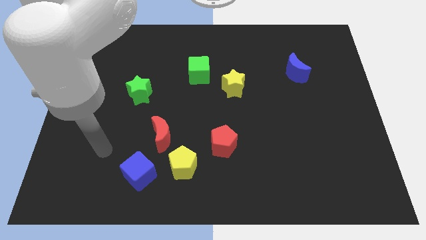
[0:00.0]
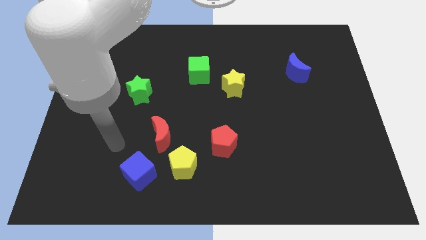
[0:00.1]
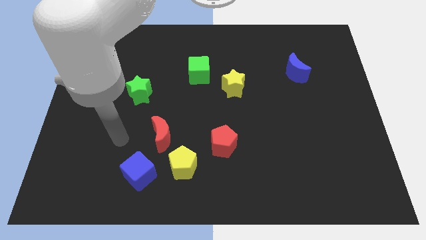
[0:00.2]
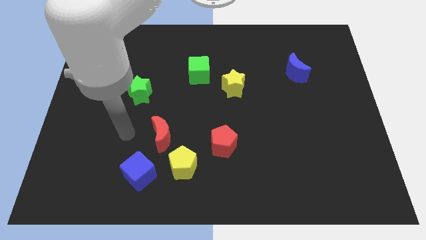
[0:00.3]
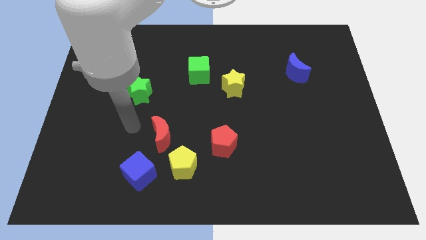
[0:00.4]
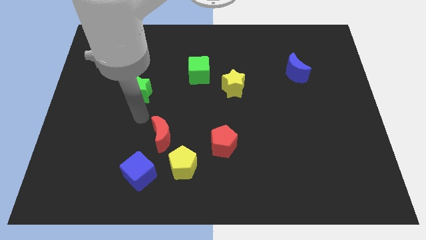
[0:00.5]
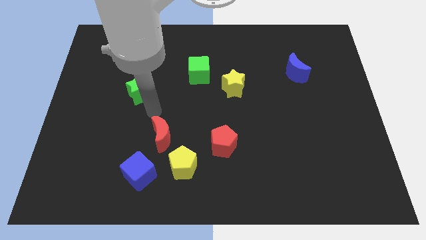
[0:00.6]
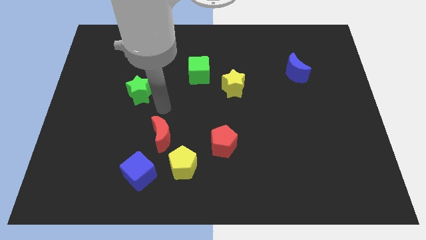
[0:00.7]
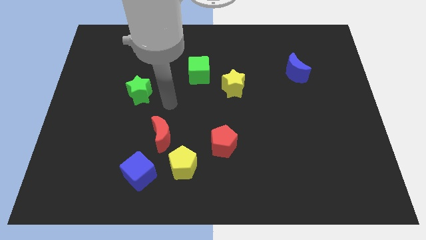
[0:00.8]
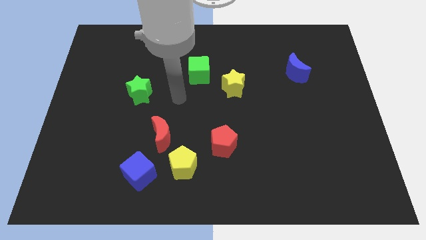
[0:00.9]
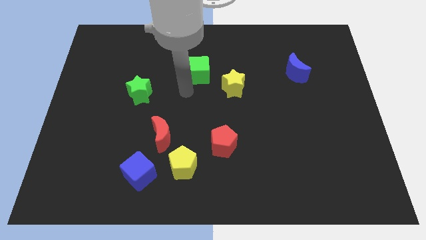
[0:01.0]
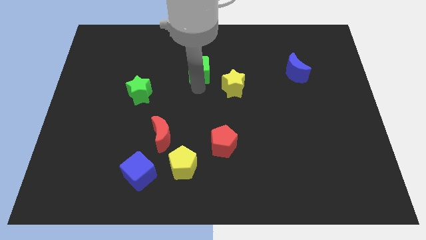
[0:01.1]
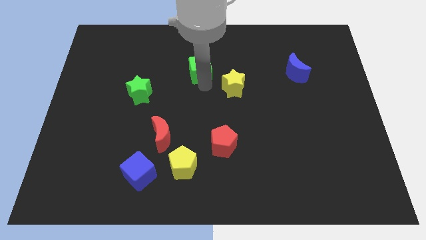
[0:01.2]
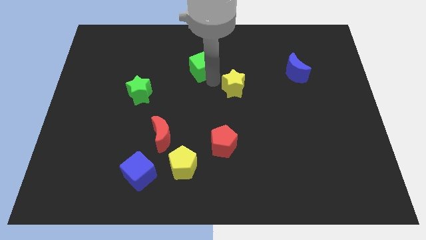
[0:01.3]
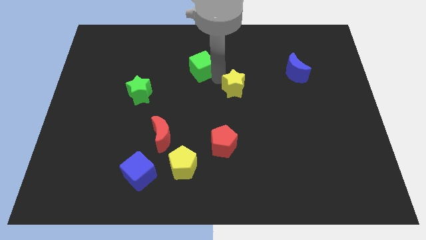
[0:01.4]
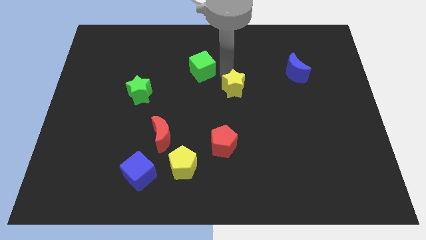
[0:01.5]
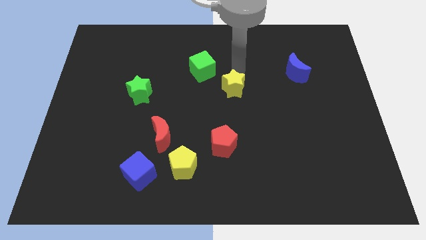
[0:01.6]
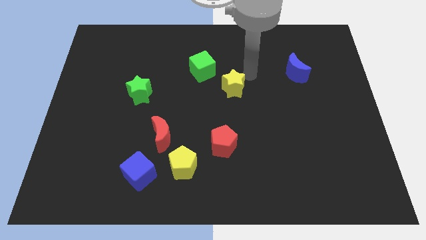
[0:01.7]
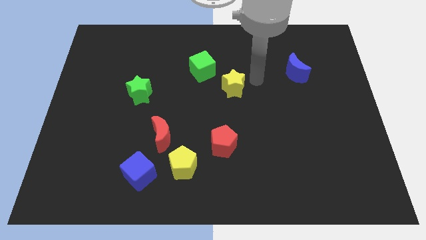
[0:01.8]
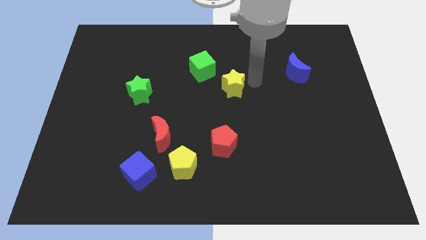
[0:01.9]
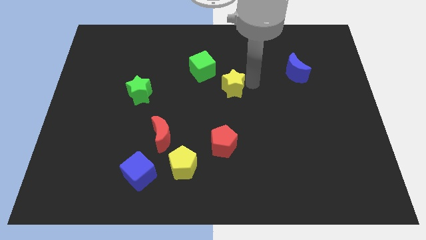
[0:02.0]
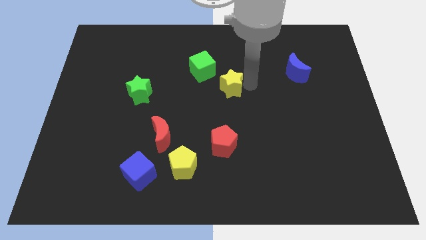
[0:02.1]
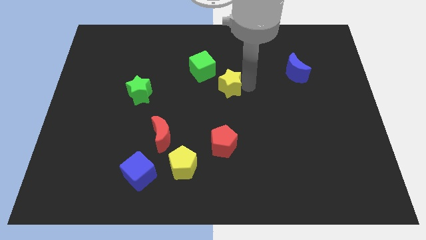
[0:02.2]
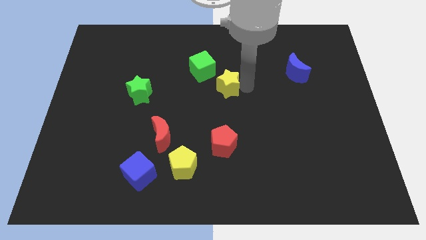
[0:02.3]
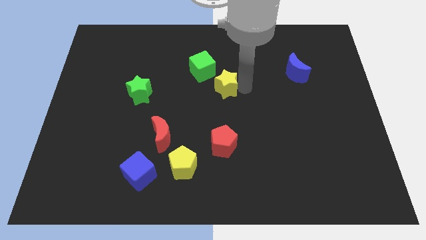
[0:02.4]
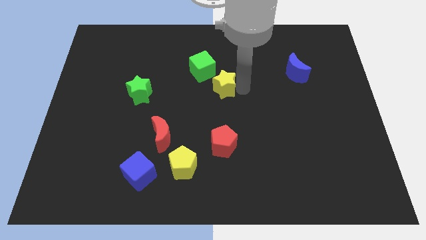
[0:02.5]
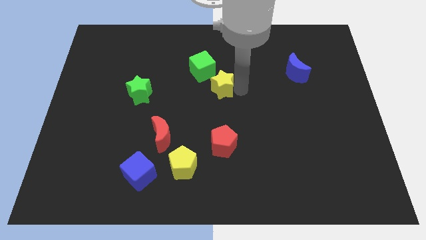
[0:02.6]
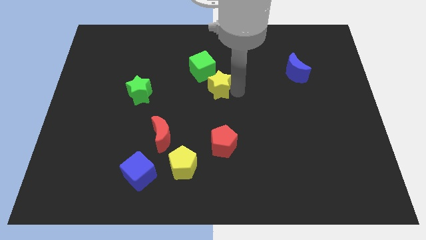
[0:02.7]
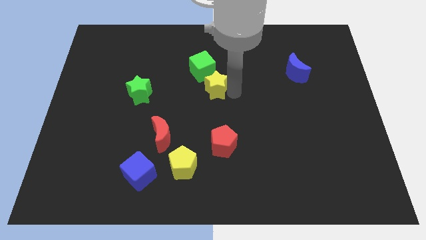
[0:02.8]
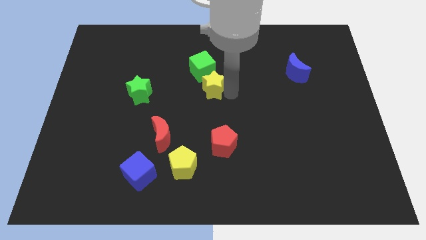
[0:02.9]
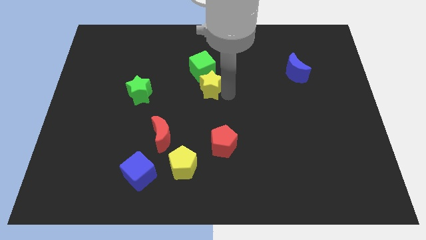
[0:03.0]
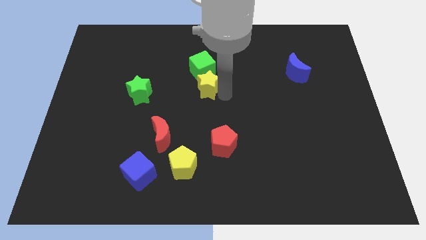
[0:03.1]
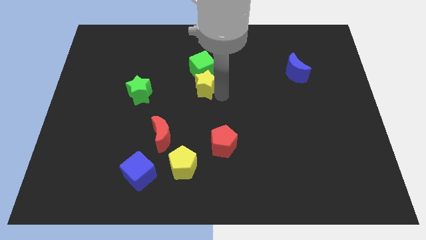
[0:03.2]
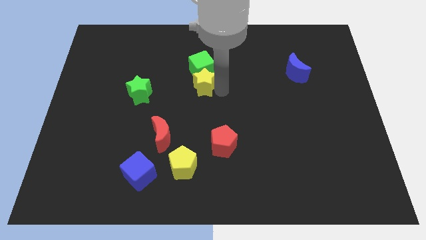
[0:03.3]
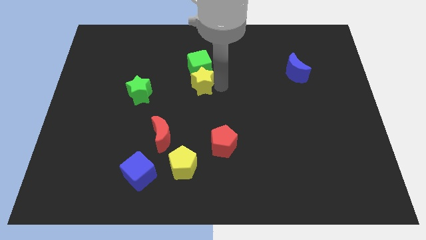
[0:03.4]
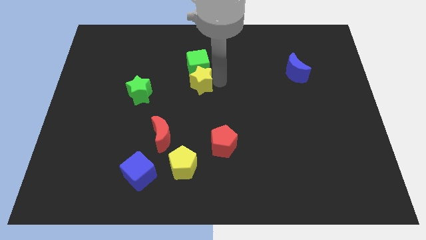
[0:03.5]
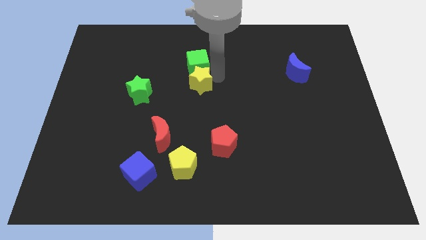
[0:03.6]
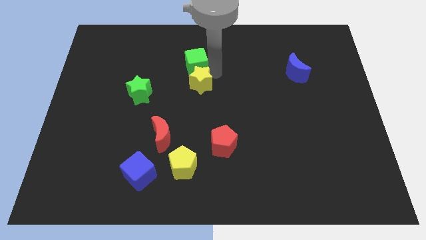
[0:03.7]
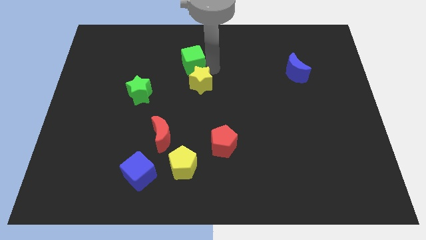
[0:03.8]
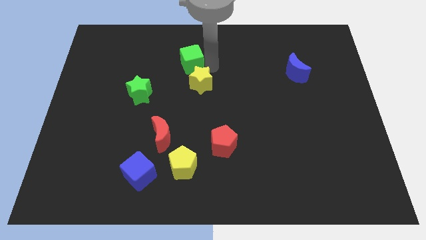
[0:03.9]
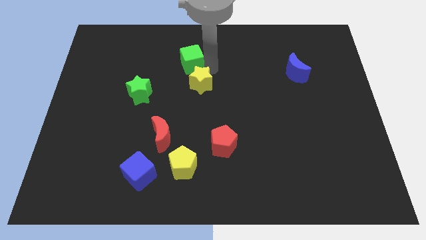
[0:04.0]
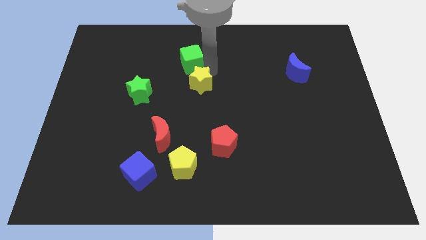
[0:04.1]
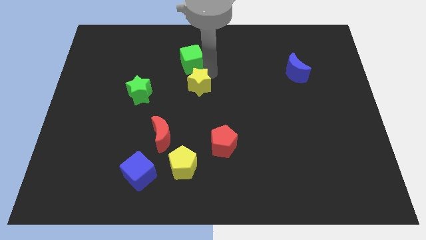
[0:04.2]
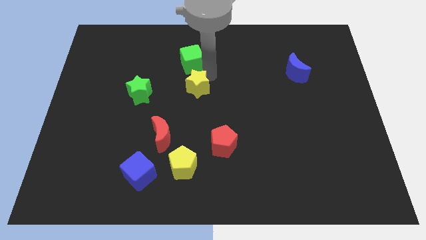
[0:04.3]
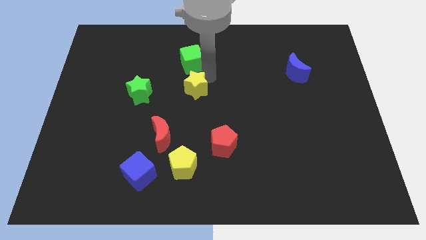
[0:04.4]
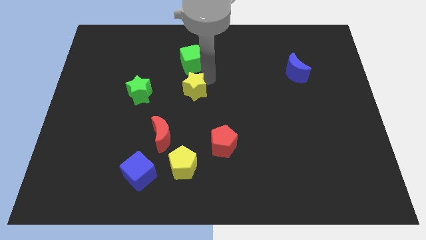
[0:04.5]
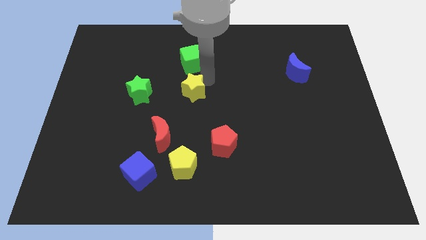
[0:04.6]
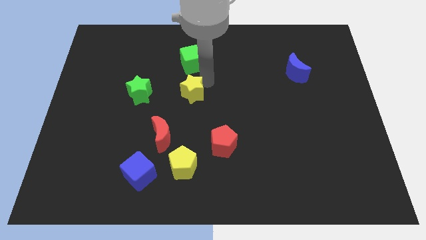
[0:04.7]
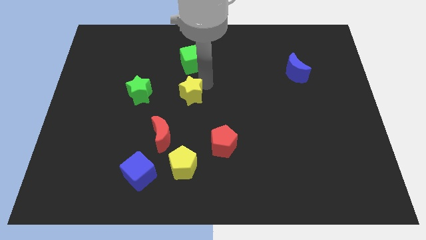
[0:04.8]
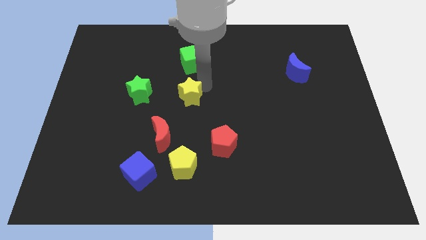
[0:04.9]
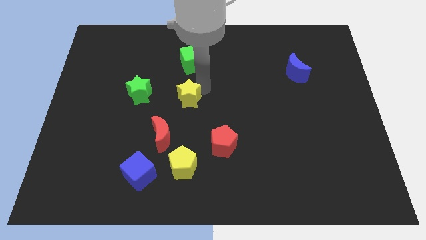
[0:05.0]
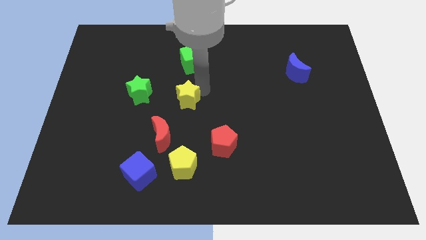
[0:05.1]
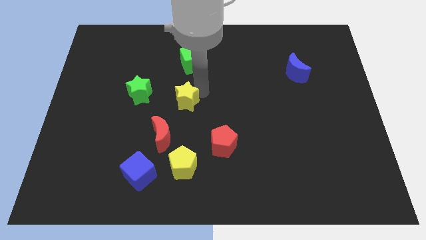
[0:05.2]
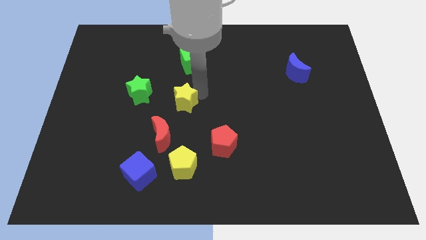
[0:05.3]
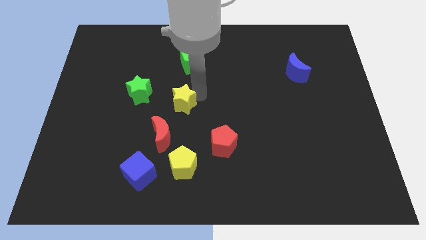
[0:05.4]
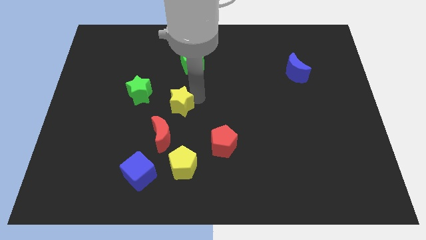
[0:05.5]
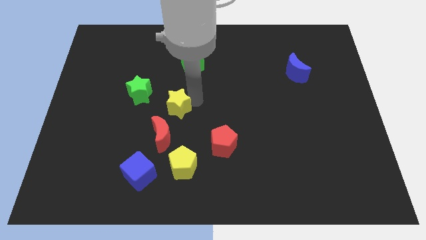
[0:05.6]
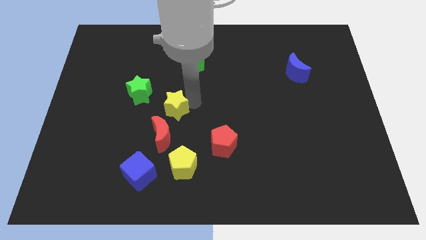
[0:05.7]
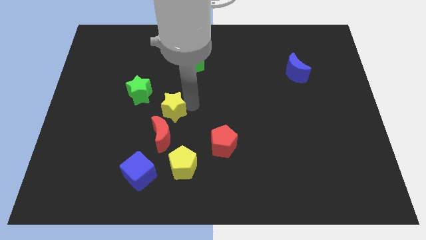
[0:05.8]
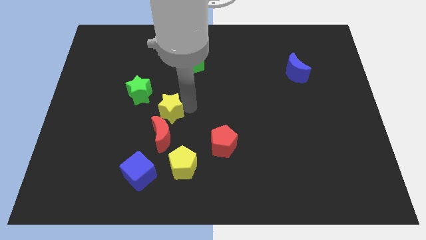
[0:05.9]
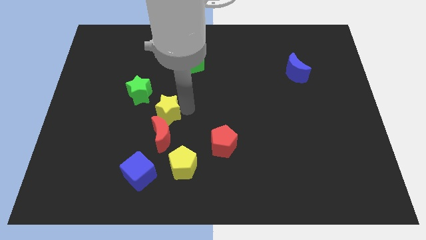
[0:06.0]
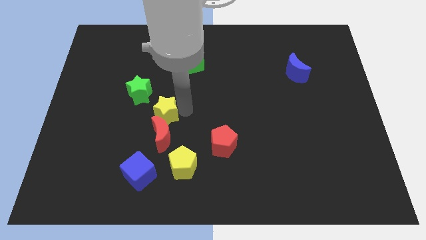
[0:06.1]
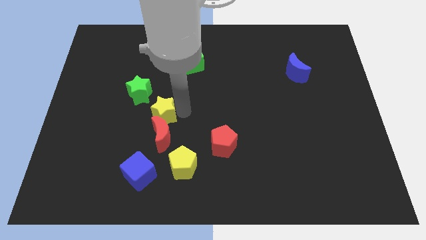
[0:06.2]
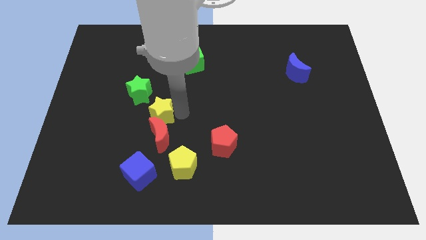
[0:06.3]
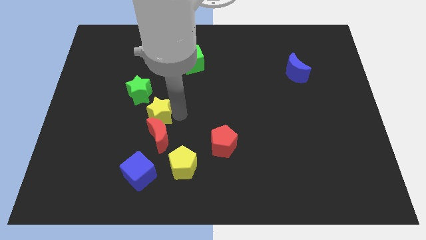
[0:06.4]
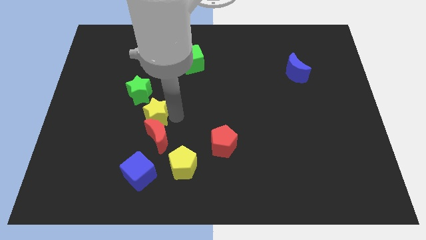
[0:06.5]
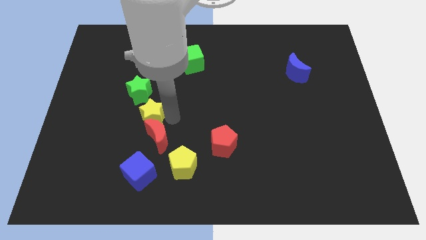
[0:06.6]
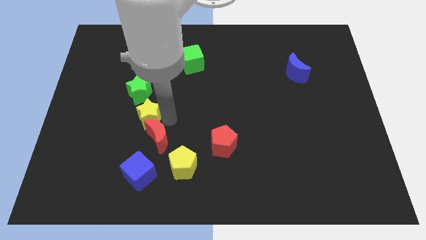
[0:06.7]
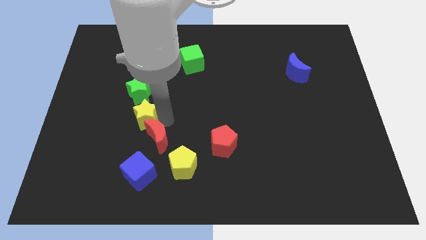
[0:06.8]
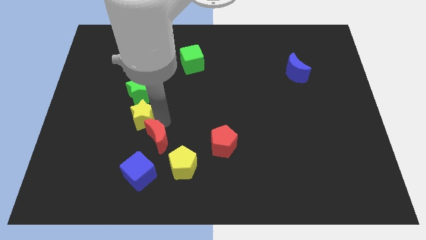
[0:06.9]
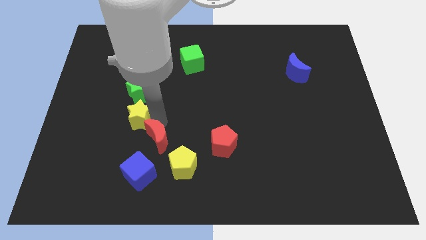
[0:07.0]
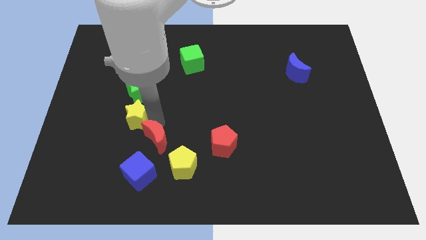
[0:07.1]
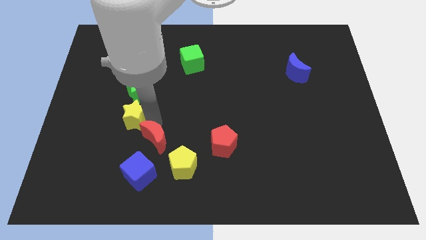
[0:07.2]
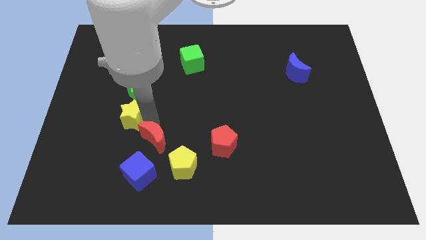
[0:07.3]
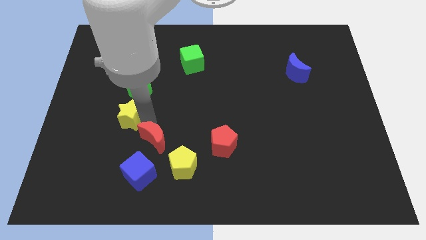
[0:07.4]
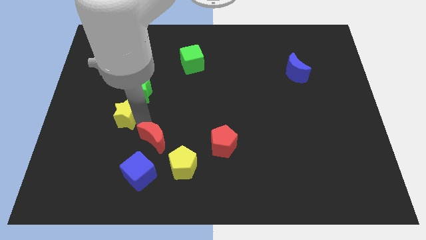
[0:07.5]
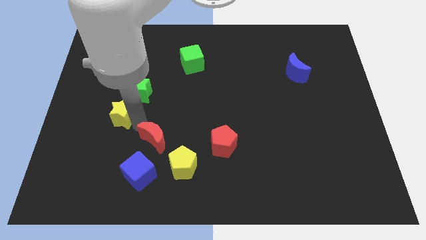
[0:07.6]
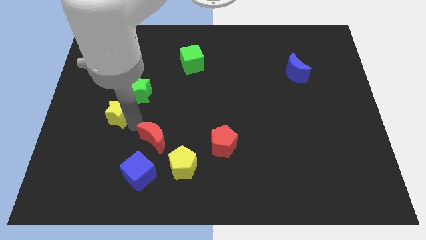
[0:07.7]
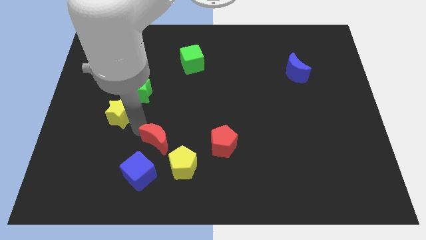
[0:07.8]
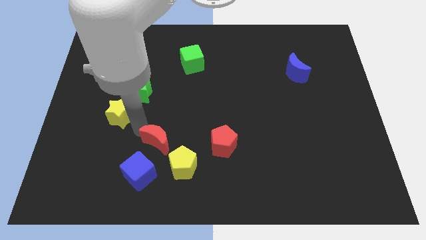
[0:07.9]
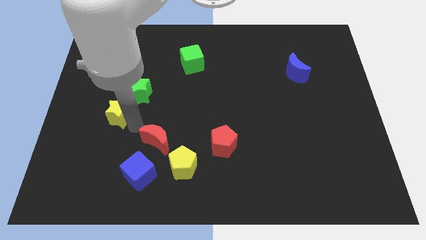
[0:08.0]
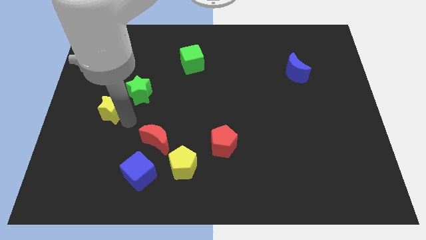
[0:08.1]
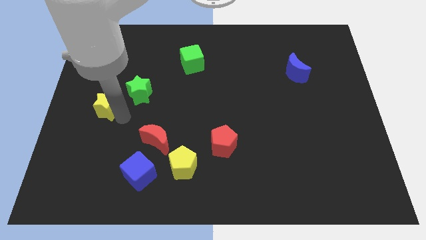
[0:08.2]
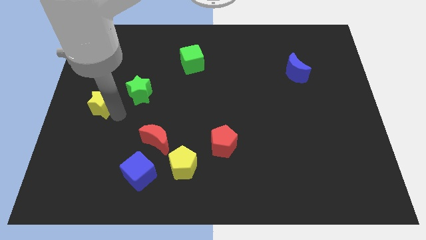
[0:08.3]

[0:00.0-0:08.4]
slide the yellow star to the center left
